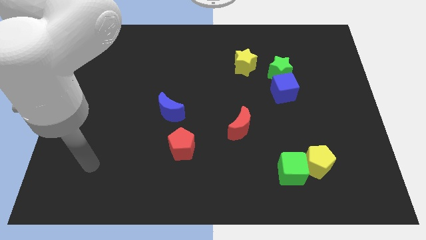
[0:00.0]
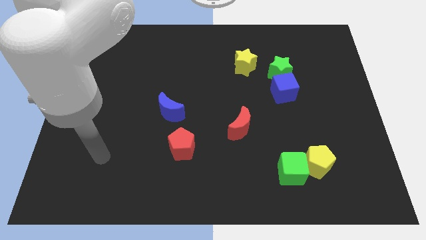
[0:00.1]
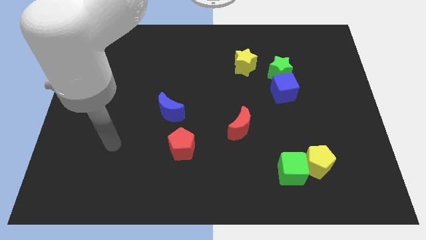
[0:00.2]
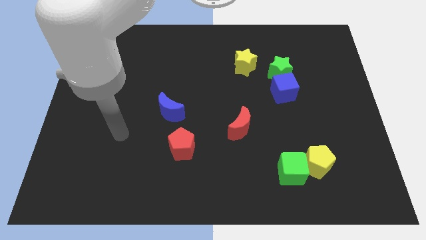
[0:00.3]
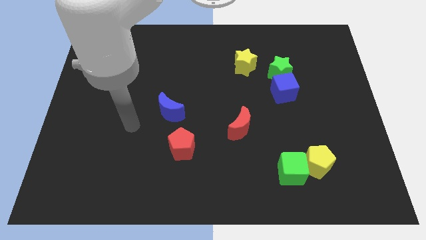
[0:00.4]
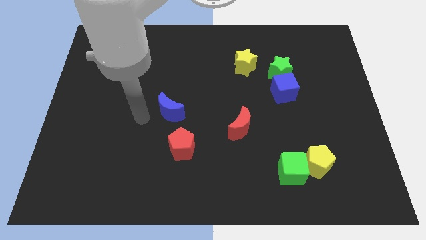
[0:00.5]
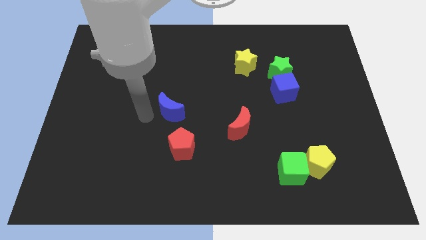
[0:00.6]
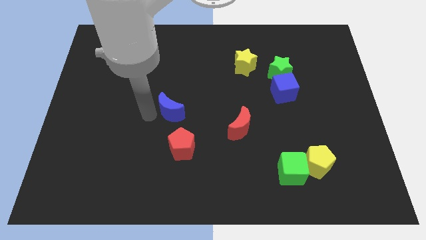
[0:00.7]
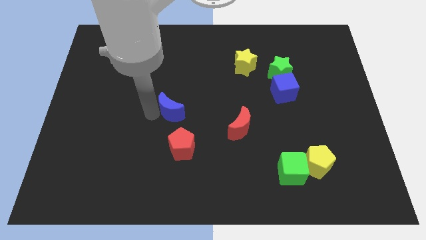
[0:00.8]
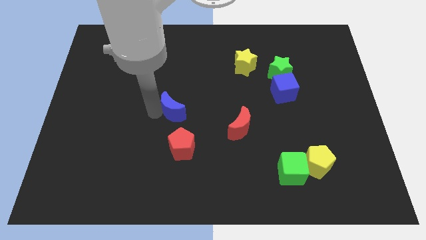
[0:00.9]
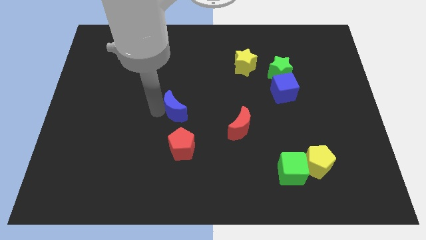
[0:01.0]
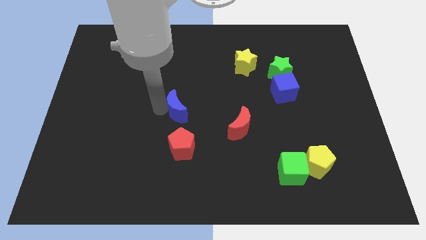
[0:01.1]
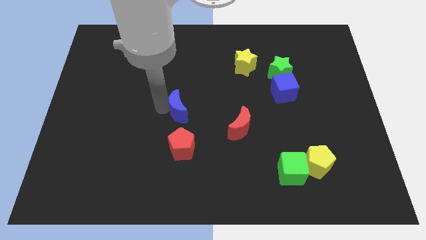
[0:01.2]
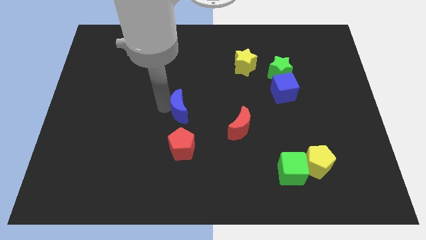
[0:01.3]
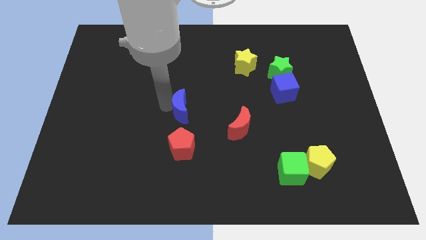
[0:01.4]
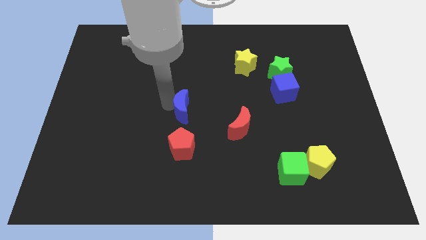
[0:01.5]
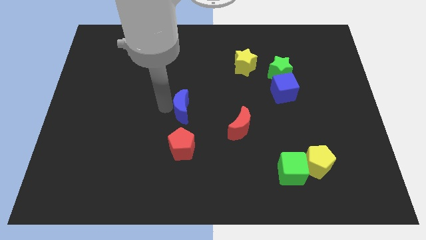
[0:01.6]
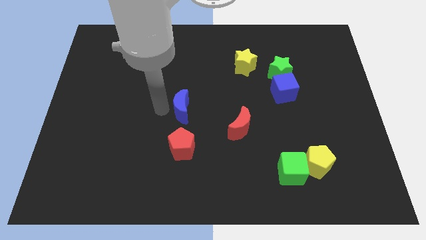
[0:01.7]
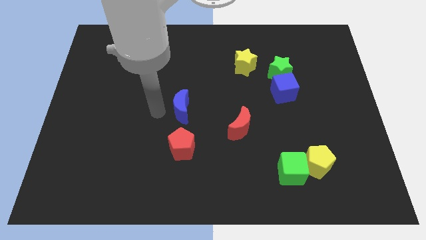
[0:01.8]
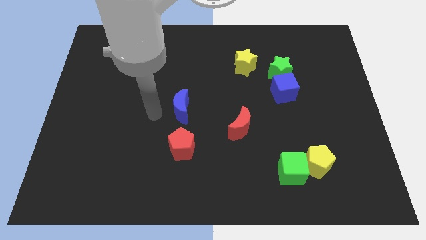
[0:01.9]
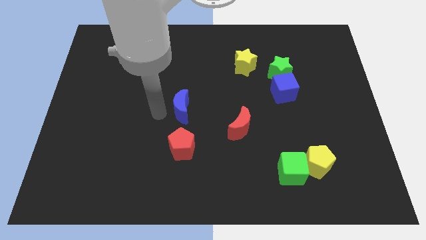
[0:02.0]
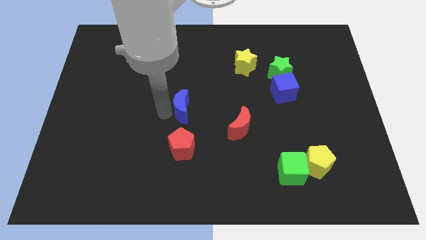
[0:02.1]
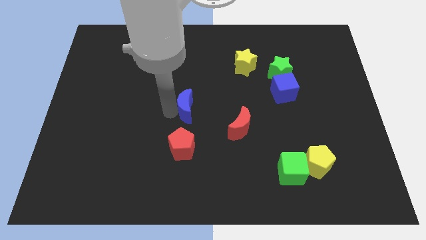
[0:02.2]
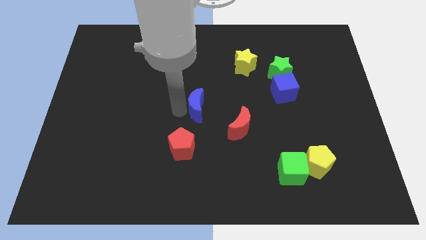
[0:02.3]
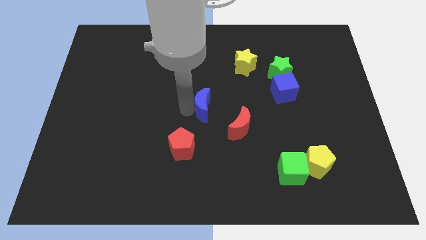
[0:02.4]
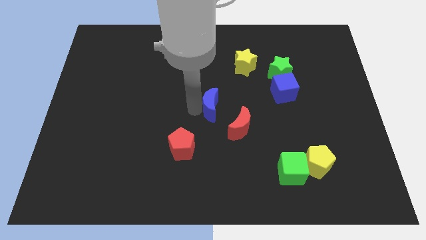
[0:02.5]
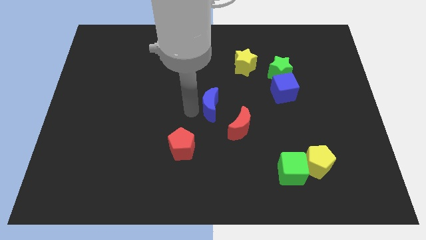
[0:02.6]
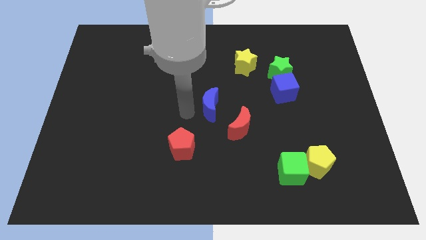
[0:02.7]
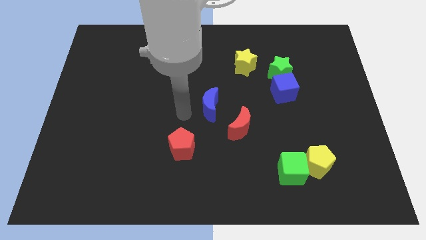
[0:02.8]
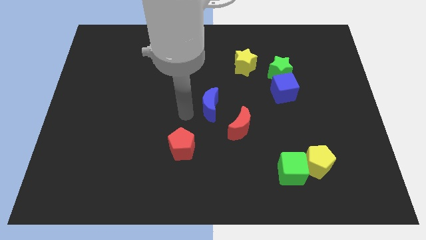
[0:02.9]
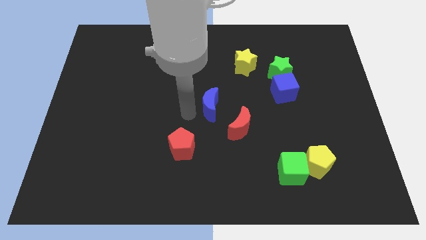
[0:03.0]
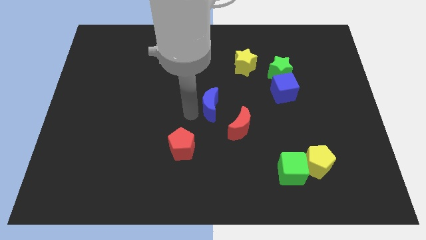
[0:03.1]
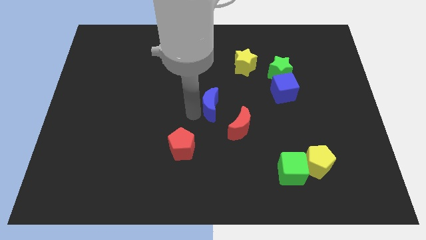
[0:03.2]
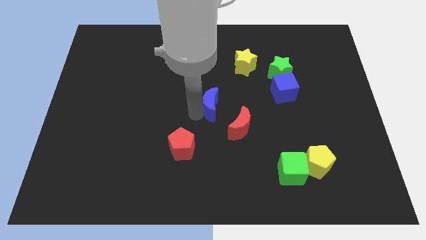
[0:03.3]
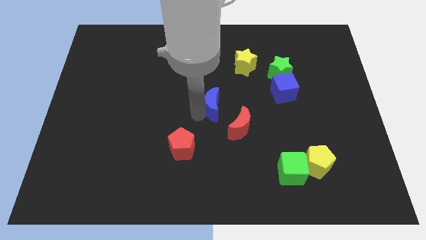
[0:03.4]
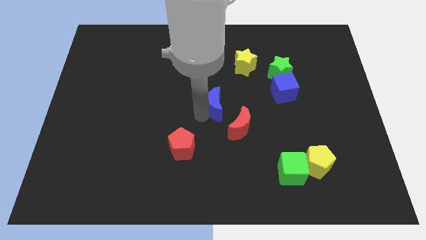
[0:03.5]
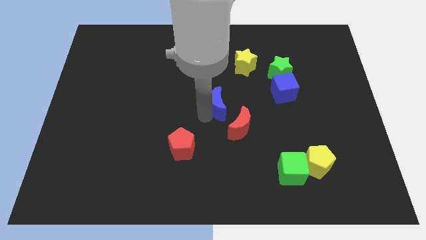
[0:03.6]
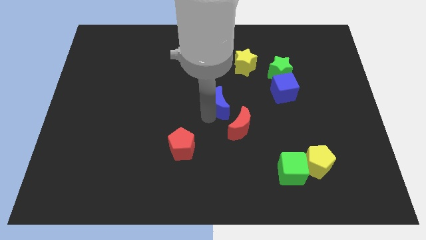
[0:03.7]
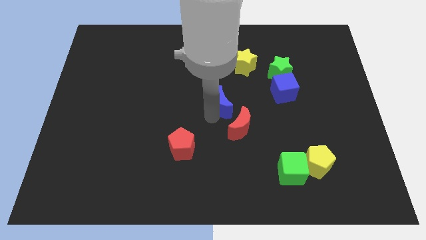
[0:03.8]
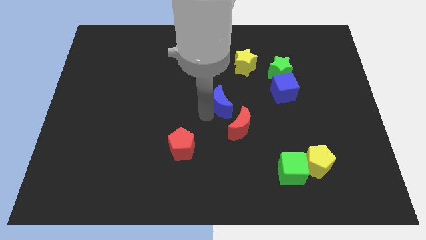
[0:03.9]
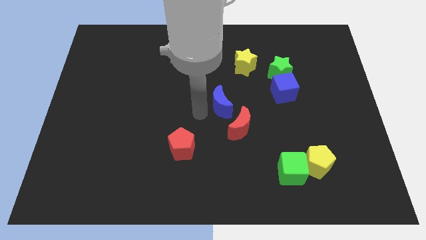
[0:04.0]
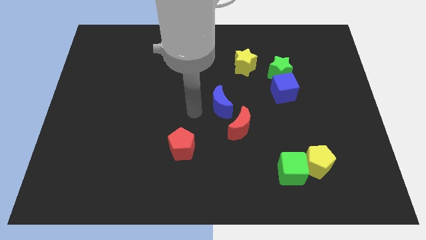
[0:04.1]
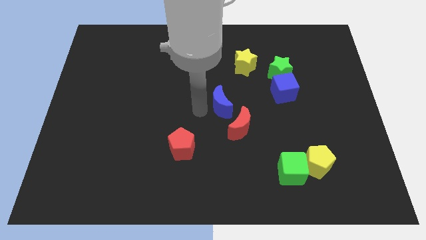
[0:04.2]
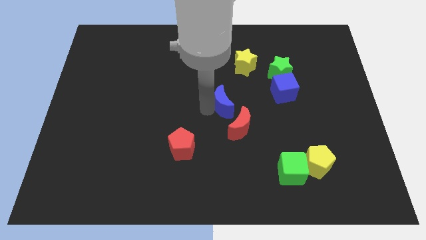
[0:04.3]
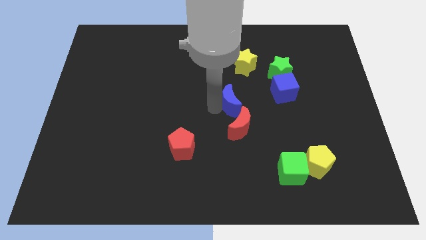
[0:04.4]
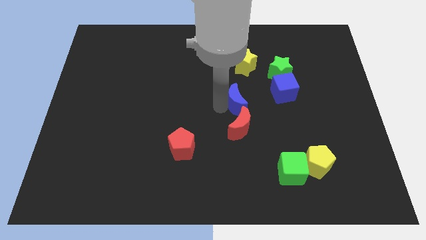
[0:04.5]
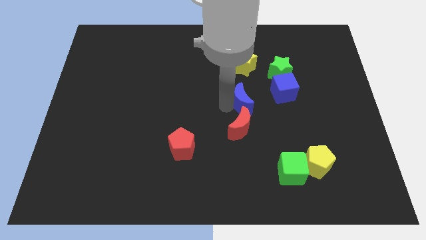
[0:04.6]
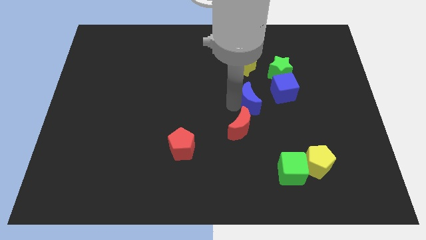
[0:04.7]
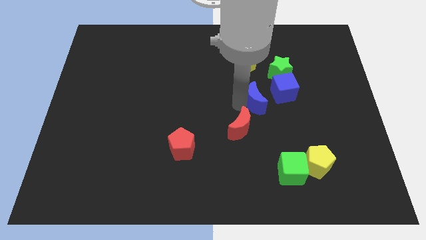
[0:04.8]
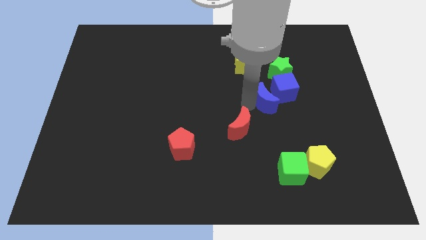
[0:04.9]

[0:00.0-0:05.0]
slide the blue moon next to the blue cube

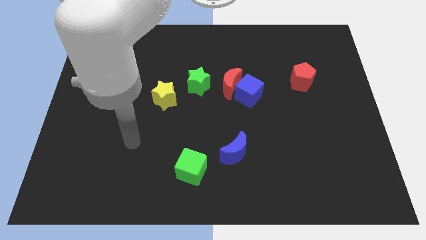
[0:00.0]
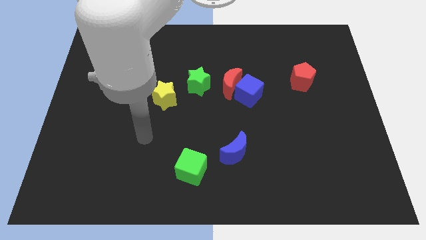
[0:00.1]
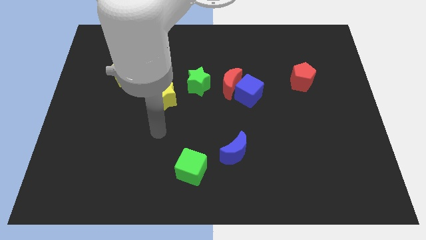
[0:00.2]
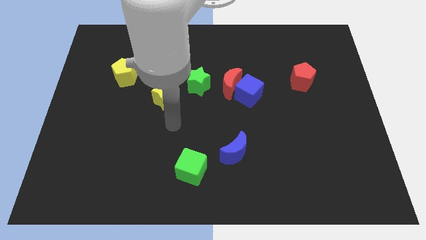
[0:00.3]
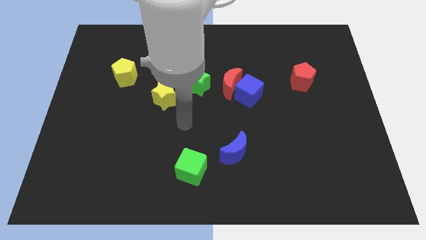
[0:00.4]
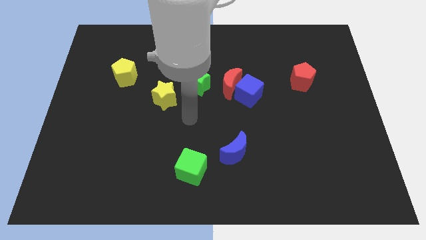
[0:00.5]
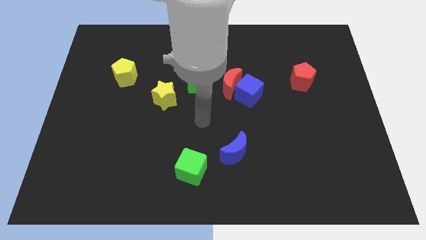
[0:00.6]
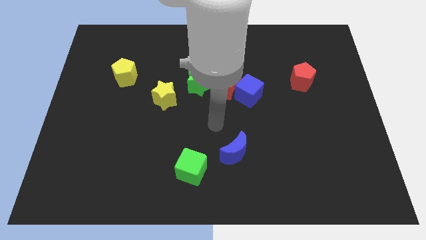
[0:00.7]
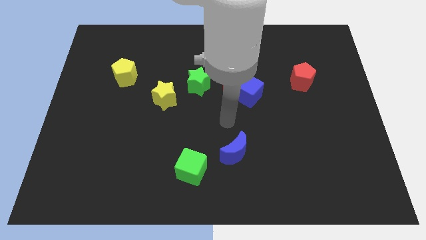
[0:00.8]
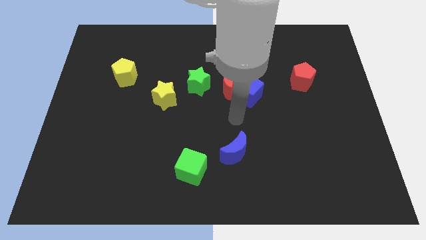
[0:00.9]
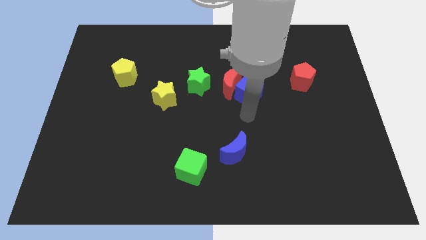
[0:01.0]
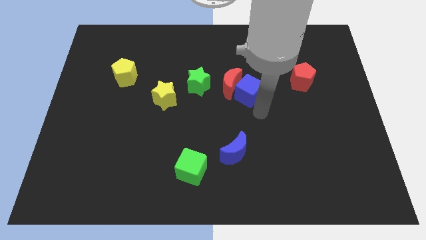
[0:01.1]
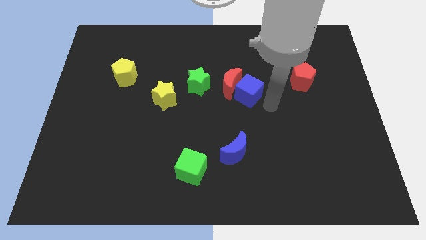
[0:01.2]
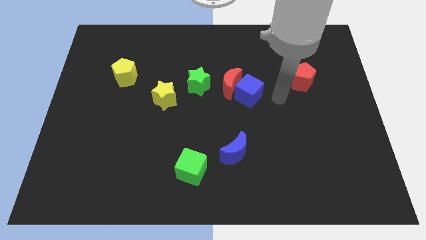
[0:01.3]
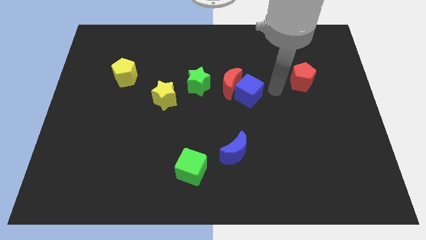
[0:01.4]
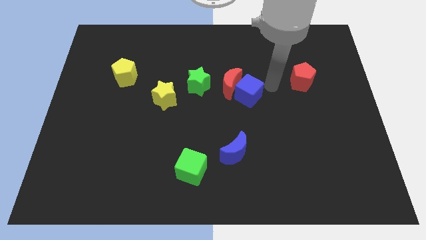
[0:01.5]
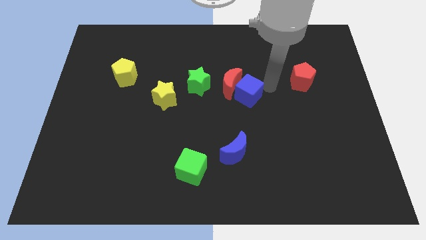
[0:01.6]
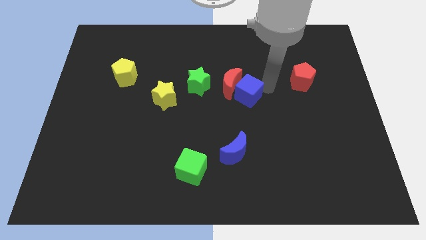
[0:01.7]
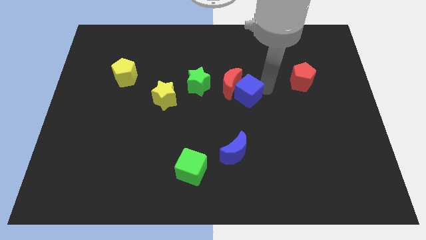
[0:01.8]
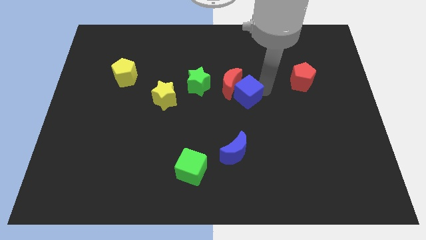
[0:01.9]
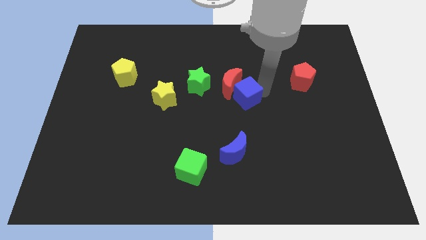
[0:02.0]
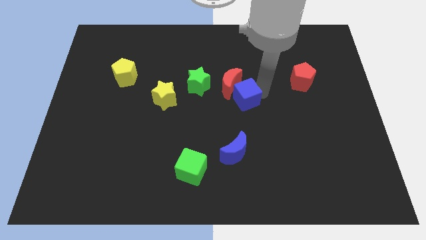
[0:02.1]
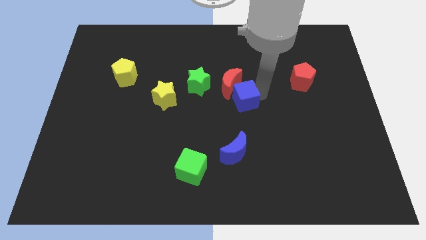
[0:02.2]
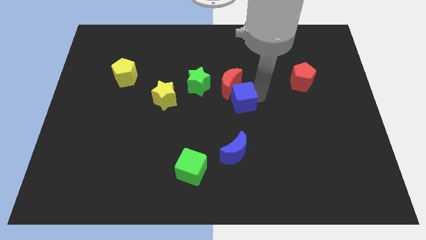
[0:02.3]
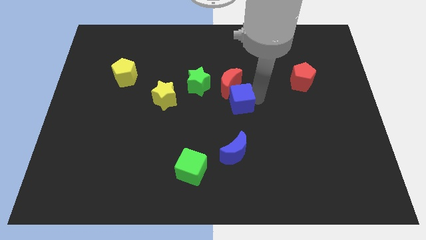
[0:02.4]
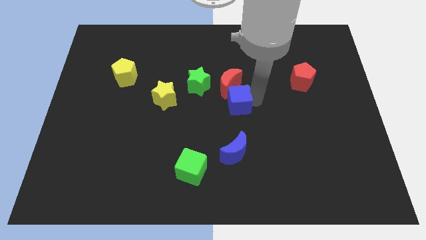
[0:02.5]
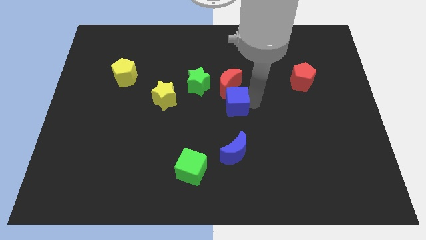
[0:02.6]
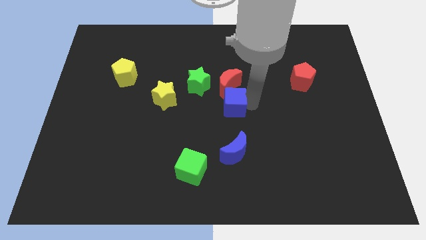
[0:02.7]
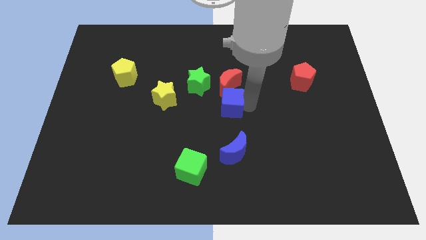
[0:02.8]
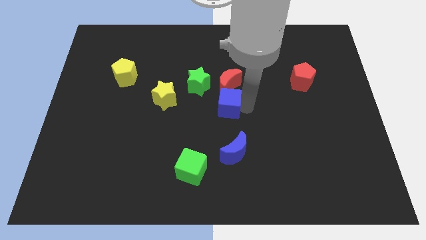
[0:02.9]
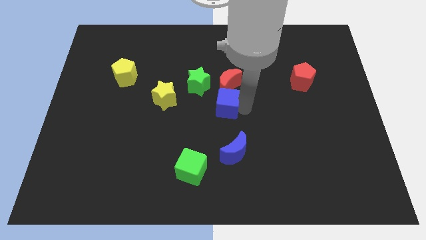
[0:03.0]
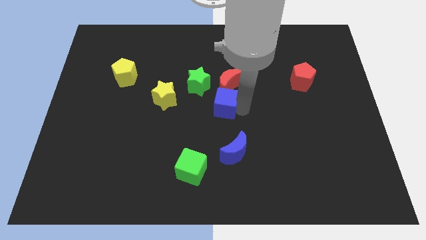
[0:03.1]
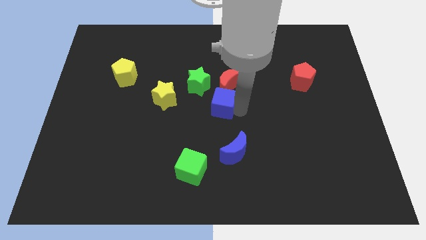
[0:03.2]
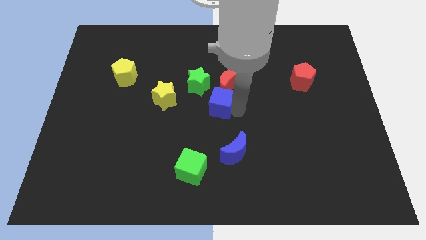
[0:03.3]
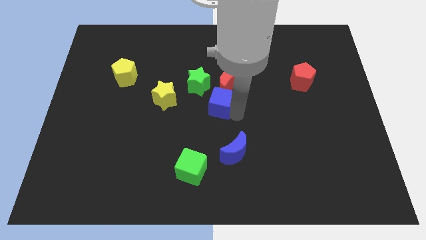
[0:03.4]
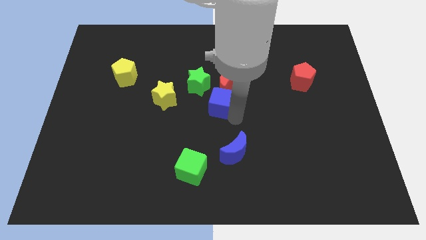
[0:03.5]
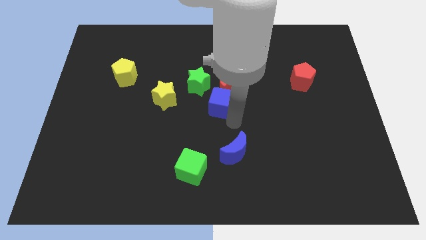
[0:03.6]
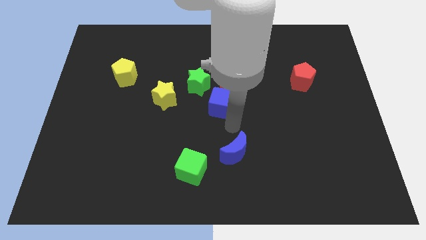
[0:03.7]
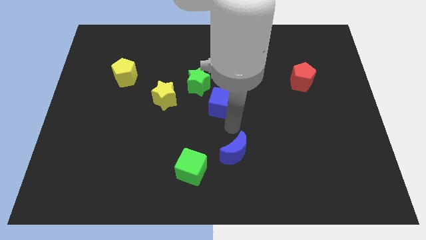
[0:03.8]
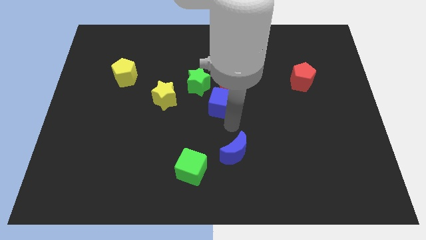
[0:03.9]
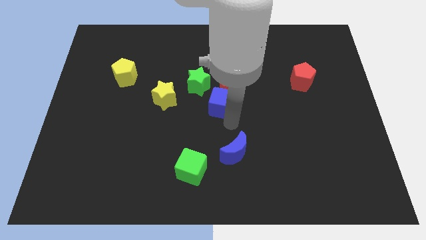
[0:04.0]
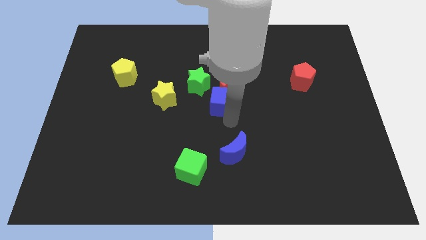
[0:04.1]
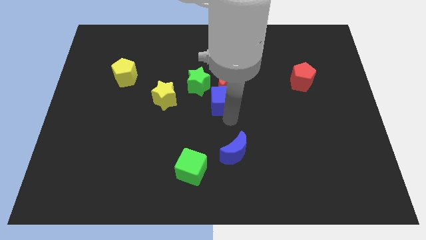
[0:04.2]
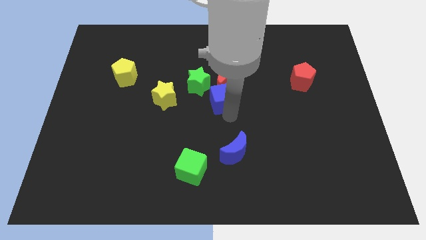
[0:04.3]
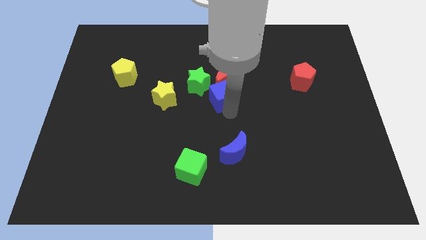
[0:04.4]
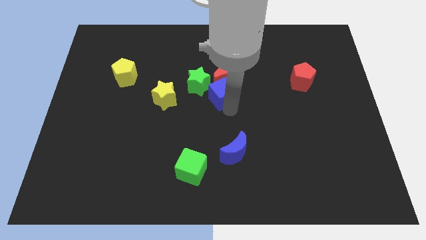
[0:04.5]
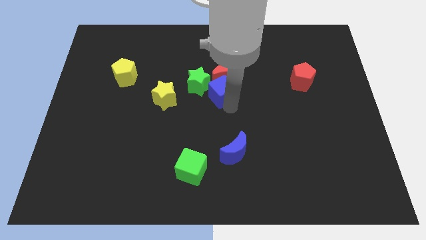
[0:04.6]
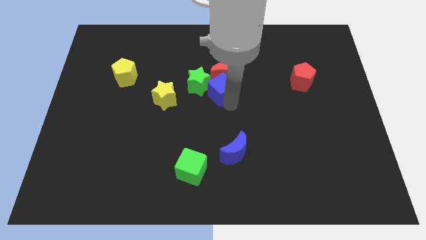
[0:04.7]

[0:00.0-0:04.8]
slide the blue cube close to the green star
